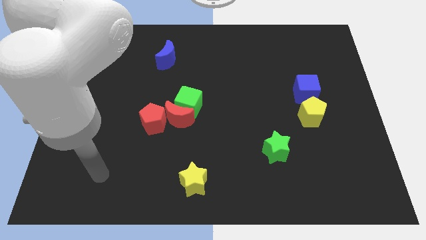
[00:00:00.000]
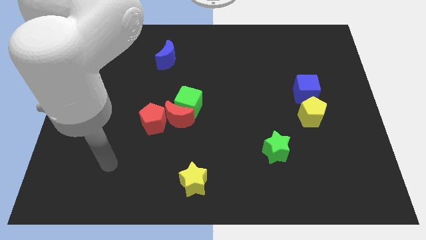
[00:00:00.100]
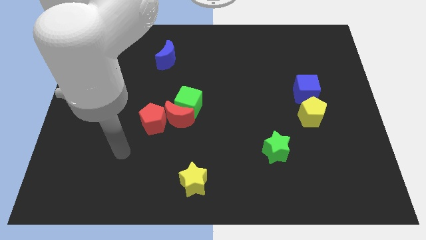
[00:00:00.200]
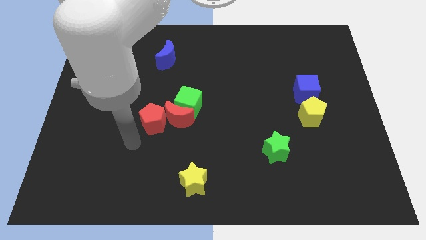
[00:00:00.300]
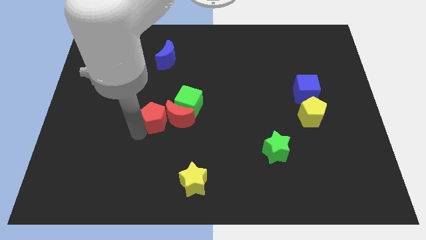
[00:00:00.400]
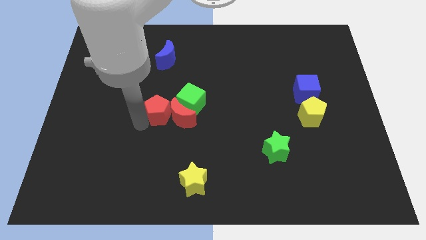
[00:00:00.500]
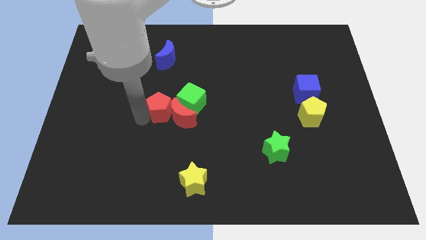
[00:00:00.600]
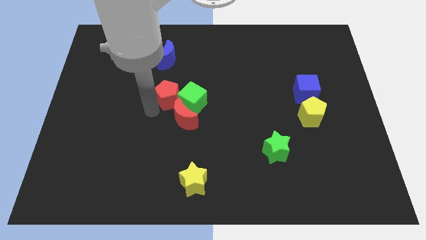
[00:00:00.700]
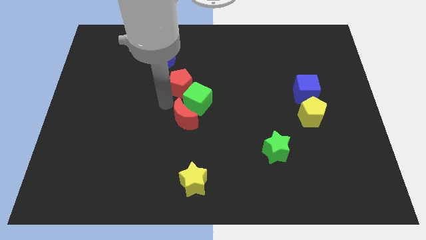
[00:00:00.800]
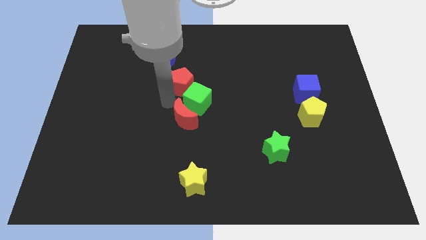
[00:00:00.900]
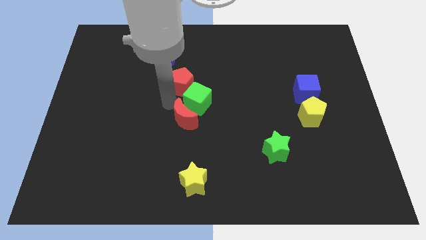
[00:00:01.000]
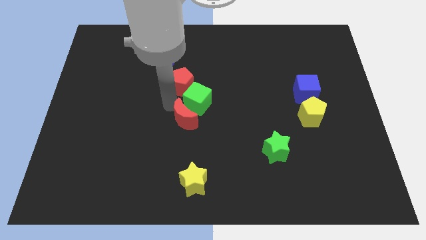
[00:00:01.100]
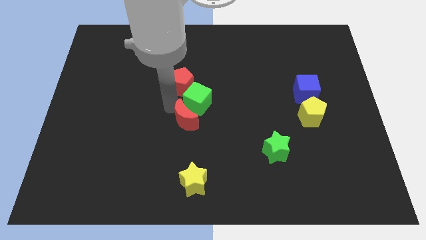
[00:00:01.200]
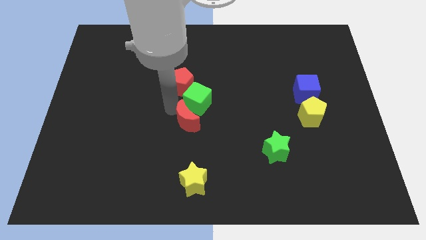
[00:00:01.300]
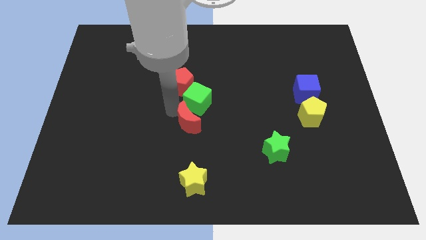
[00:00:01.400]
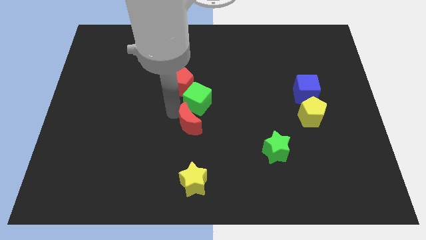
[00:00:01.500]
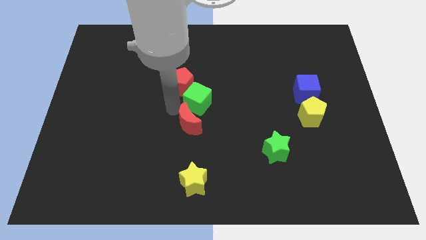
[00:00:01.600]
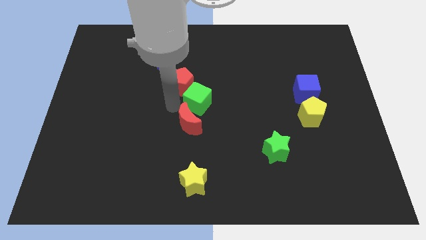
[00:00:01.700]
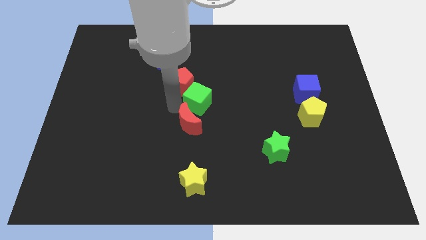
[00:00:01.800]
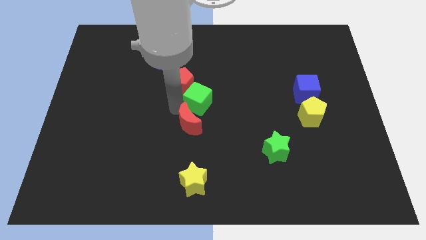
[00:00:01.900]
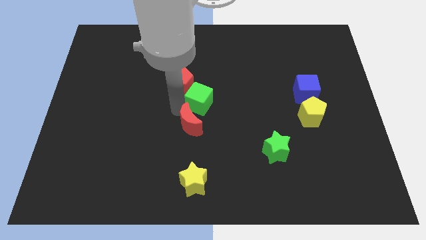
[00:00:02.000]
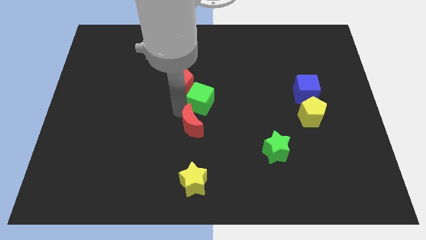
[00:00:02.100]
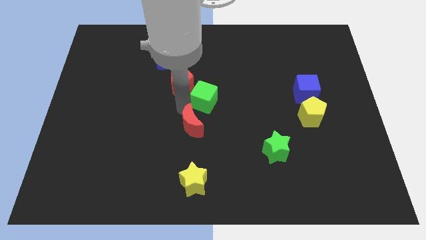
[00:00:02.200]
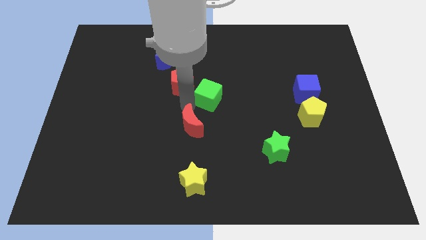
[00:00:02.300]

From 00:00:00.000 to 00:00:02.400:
pull the red moon apart from the green cube and red pentagon

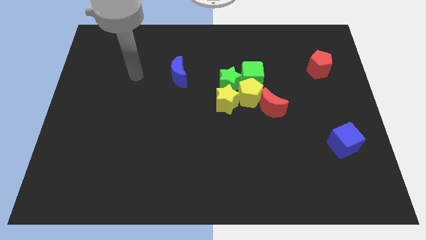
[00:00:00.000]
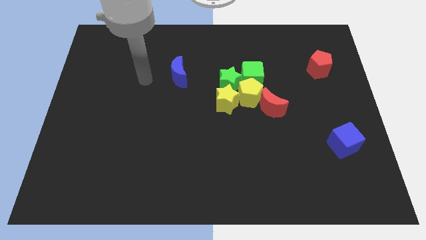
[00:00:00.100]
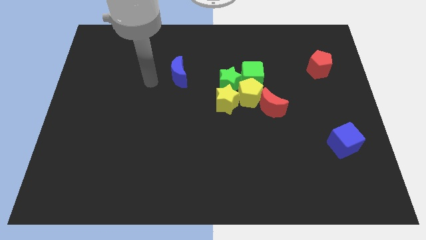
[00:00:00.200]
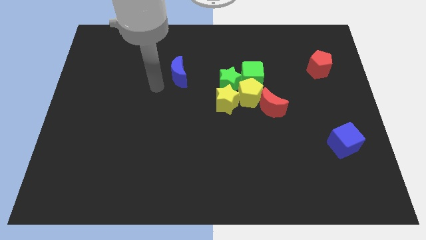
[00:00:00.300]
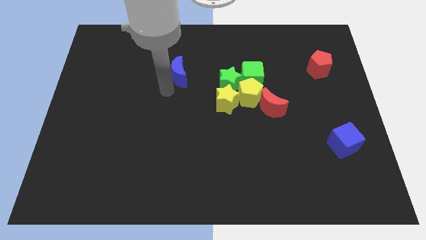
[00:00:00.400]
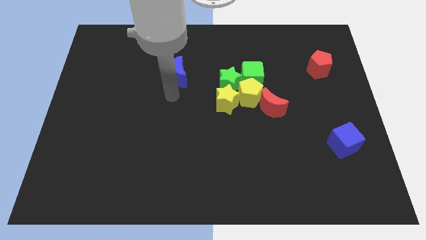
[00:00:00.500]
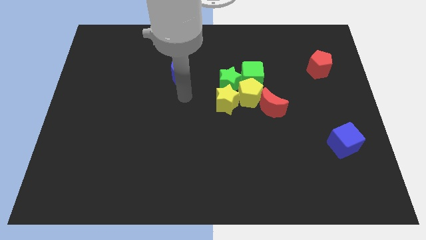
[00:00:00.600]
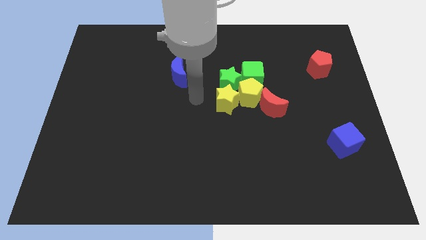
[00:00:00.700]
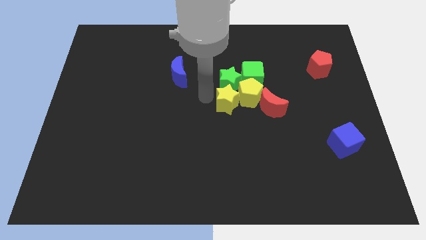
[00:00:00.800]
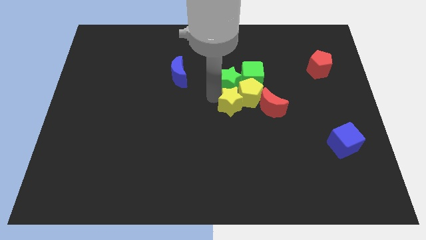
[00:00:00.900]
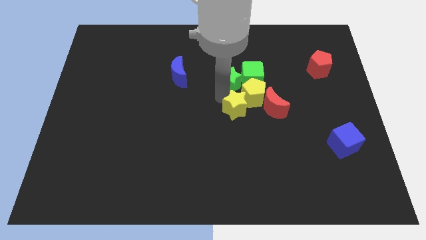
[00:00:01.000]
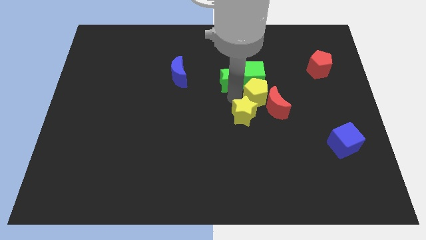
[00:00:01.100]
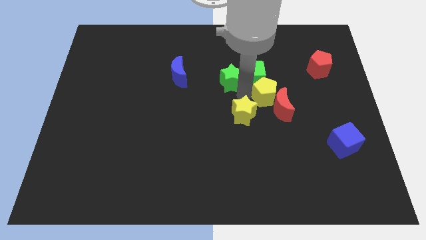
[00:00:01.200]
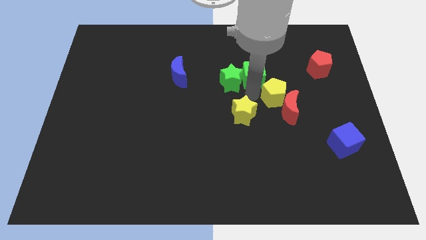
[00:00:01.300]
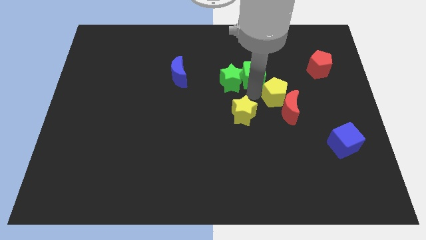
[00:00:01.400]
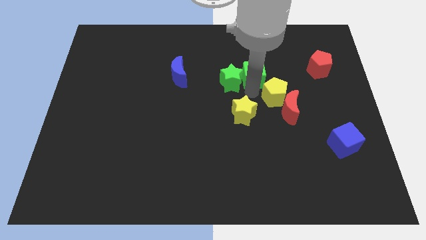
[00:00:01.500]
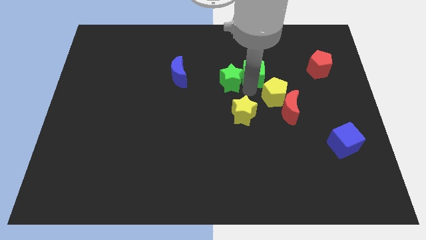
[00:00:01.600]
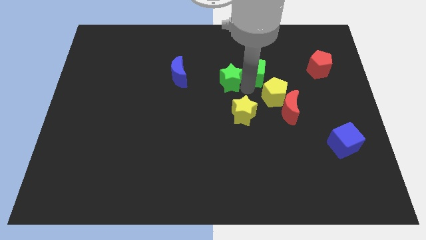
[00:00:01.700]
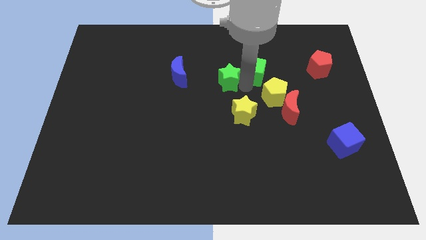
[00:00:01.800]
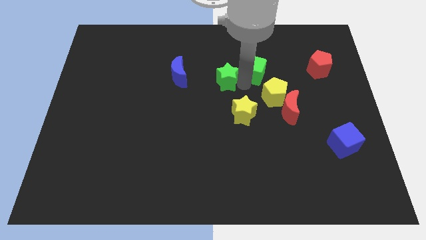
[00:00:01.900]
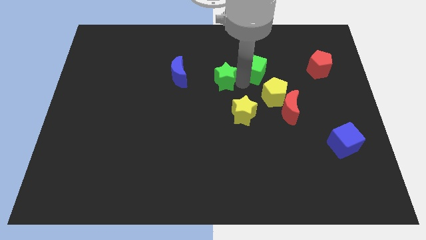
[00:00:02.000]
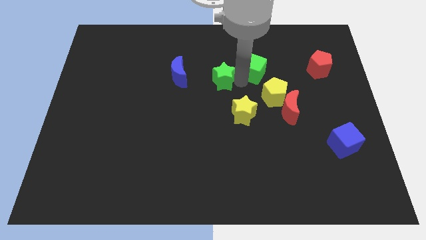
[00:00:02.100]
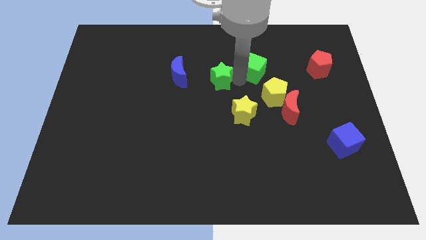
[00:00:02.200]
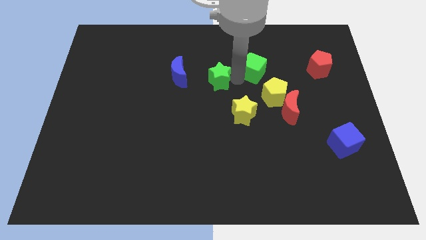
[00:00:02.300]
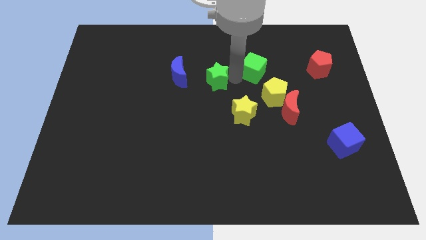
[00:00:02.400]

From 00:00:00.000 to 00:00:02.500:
pull the green star apart from the yellow star, green cube, and yellow pentagon

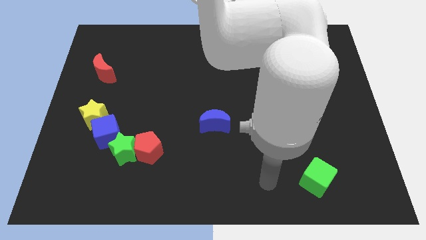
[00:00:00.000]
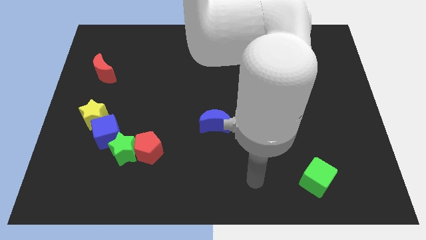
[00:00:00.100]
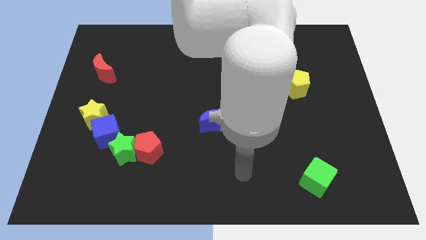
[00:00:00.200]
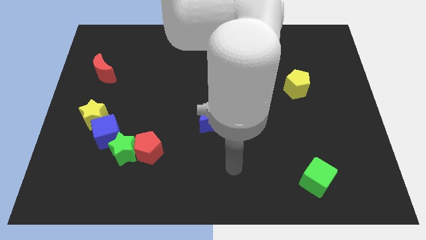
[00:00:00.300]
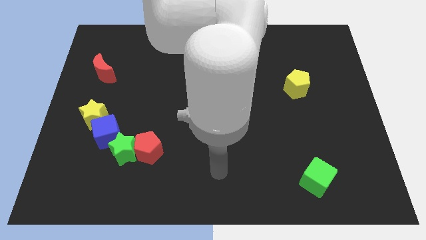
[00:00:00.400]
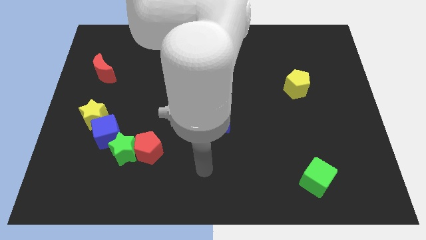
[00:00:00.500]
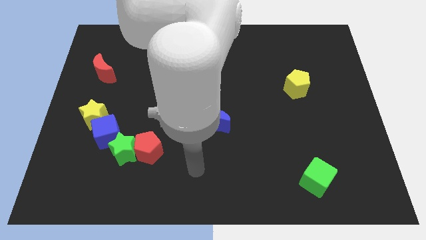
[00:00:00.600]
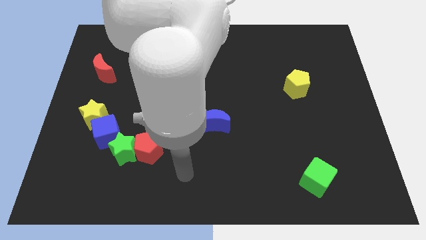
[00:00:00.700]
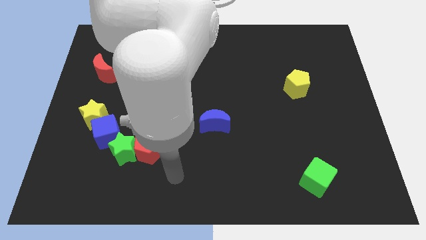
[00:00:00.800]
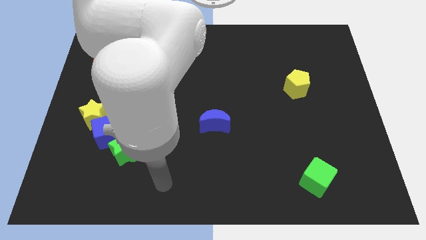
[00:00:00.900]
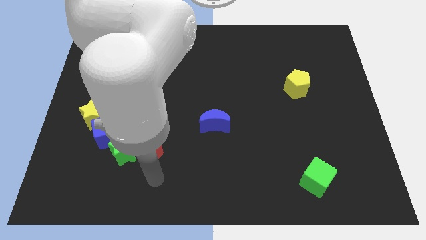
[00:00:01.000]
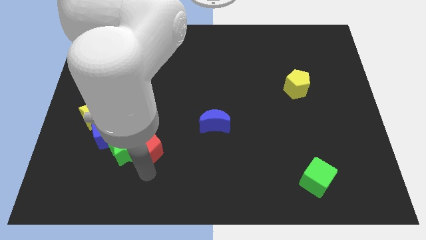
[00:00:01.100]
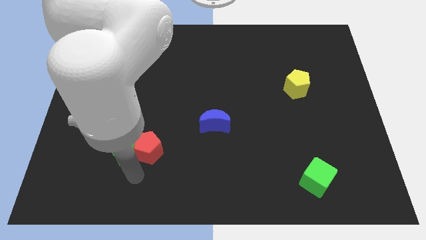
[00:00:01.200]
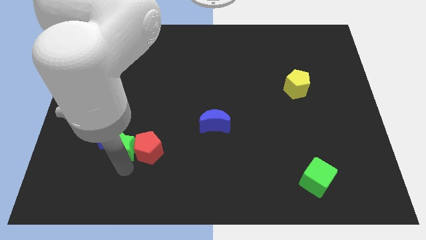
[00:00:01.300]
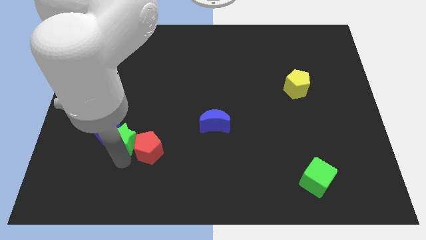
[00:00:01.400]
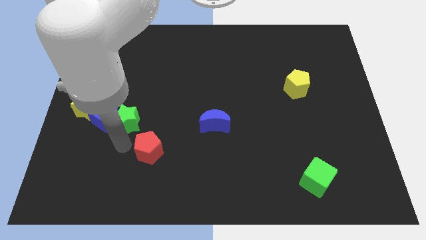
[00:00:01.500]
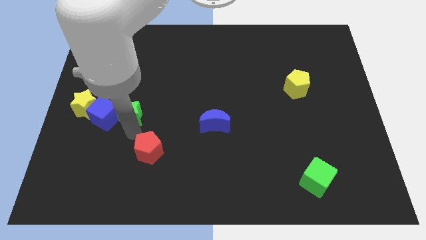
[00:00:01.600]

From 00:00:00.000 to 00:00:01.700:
separate the red pentagon from the green star

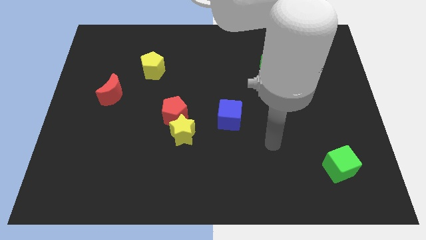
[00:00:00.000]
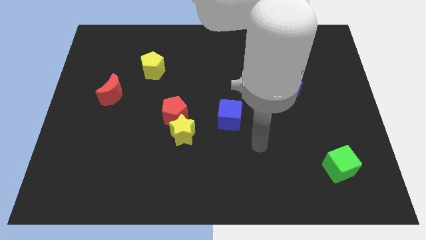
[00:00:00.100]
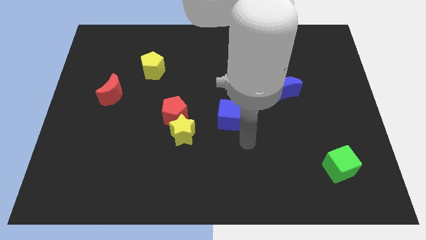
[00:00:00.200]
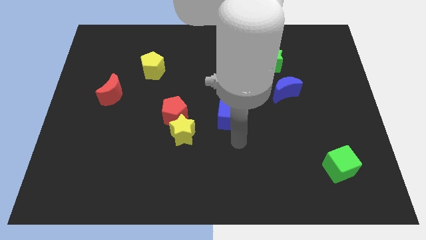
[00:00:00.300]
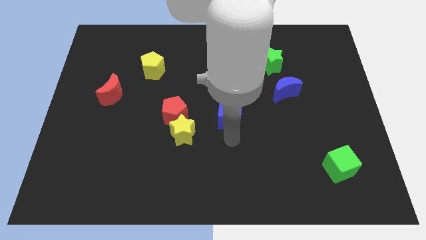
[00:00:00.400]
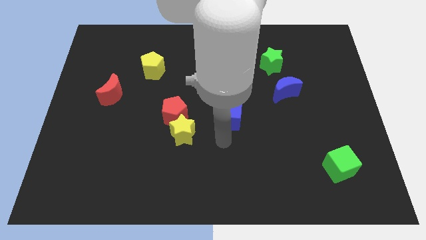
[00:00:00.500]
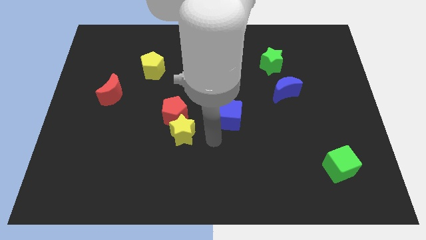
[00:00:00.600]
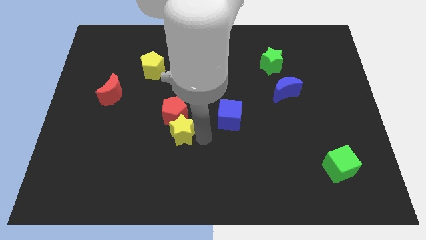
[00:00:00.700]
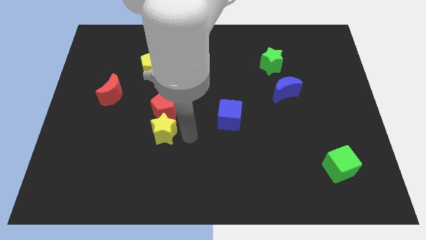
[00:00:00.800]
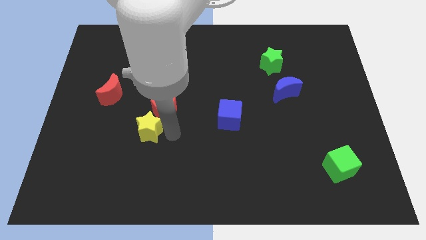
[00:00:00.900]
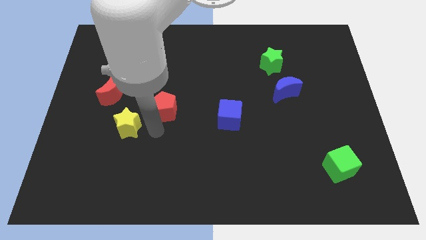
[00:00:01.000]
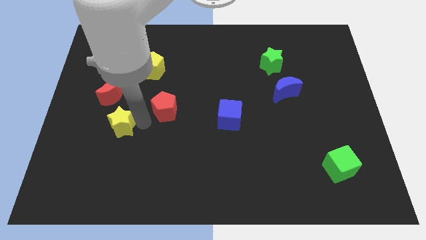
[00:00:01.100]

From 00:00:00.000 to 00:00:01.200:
separate the red pentagon from the yellow star

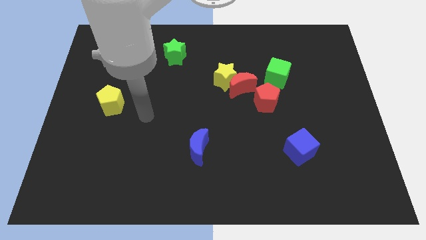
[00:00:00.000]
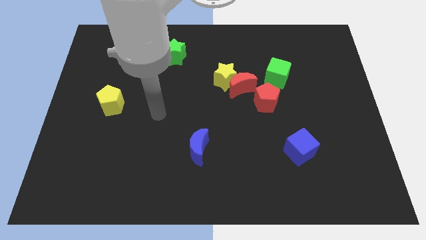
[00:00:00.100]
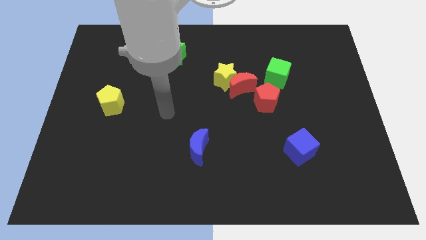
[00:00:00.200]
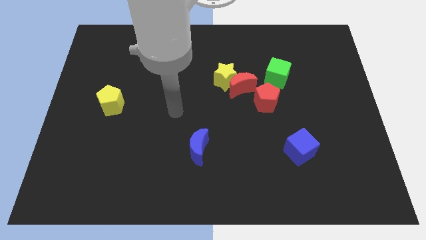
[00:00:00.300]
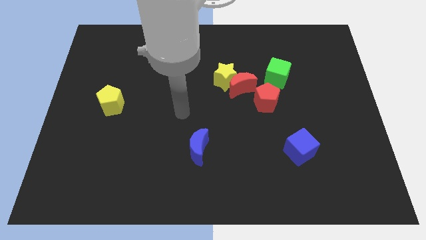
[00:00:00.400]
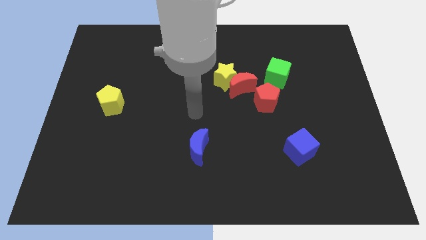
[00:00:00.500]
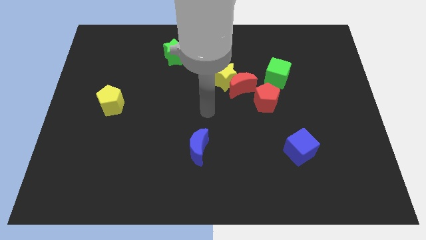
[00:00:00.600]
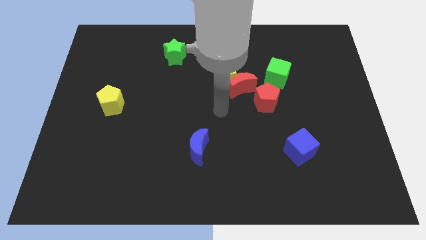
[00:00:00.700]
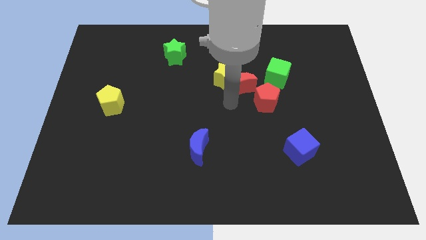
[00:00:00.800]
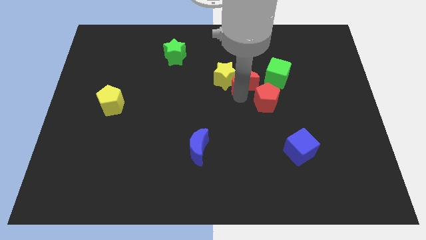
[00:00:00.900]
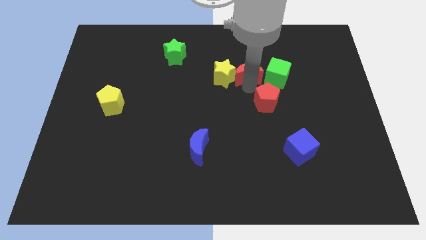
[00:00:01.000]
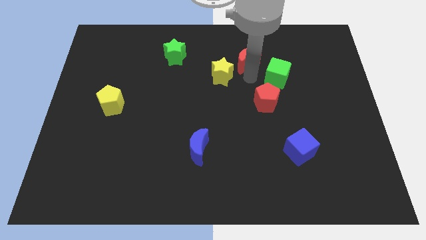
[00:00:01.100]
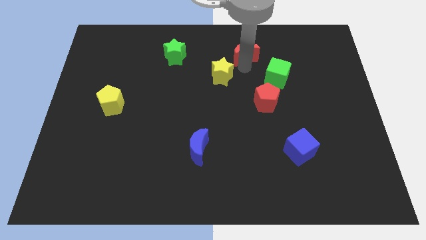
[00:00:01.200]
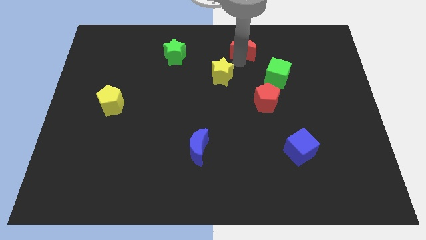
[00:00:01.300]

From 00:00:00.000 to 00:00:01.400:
separate the yellow star from the red moon
